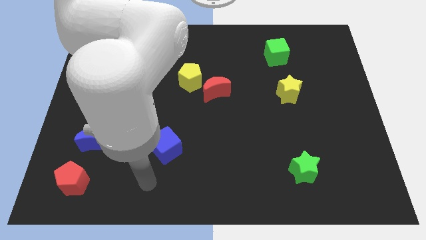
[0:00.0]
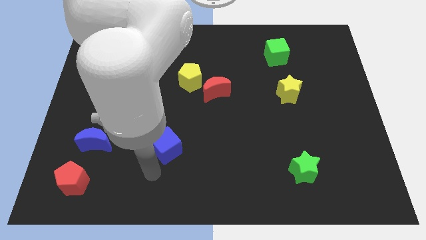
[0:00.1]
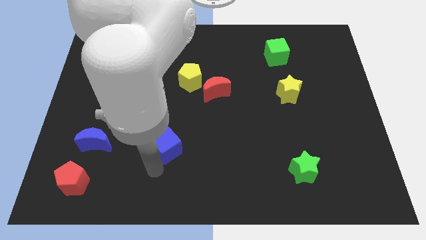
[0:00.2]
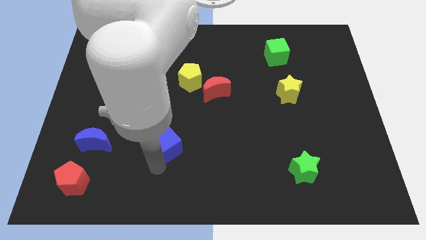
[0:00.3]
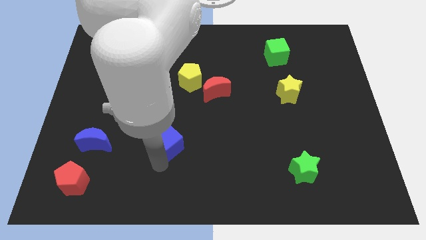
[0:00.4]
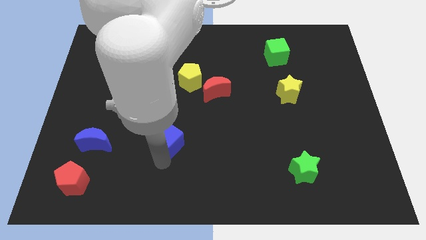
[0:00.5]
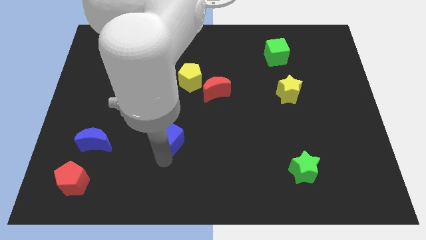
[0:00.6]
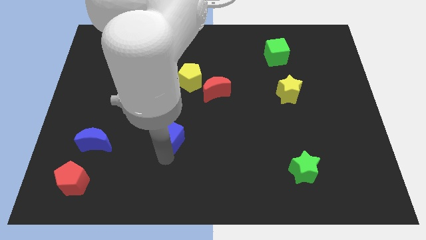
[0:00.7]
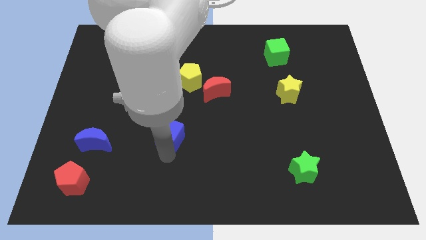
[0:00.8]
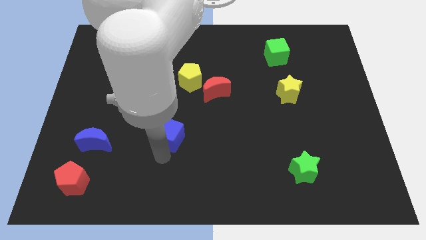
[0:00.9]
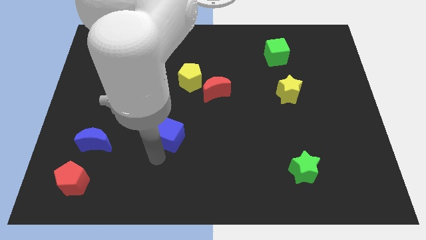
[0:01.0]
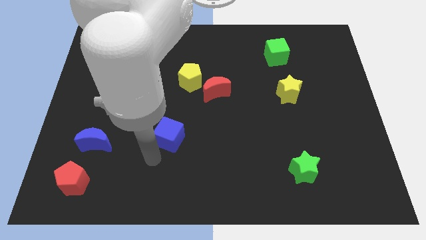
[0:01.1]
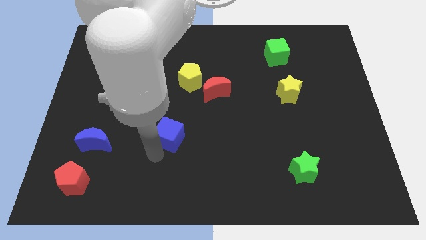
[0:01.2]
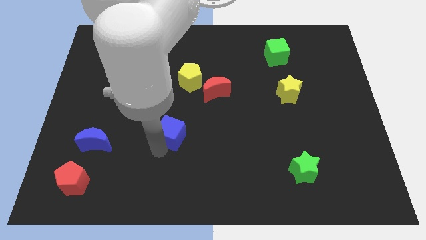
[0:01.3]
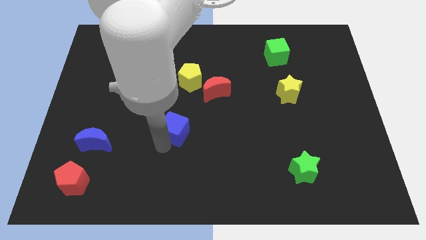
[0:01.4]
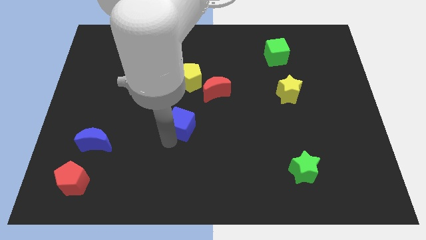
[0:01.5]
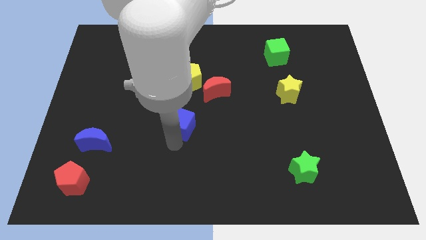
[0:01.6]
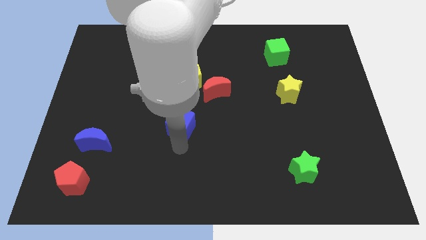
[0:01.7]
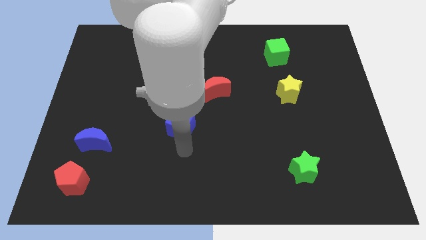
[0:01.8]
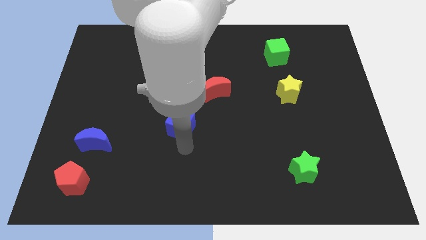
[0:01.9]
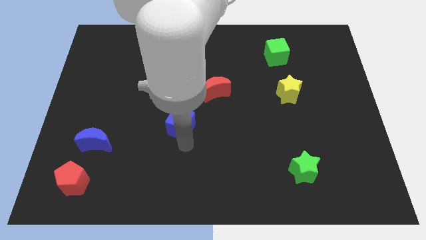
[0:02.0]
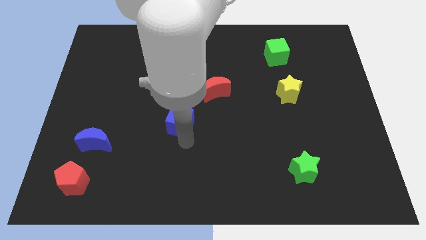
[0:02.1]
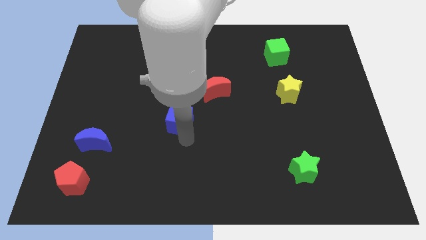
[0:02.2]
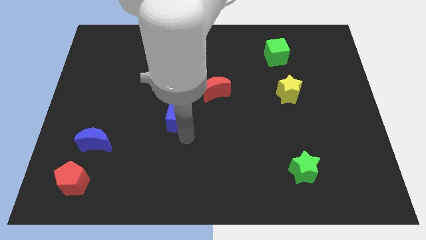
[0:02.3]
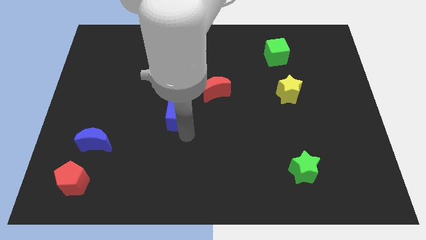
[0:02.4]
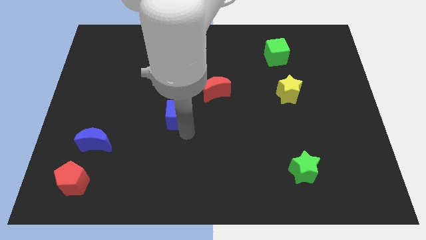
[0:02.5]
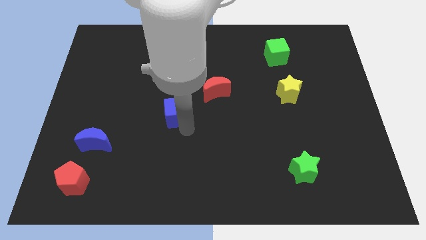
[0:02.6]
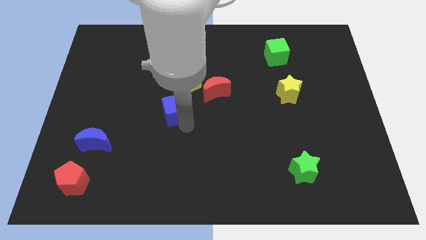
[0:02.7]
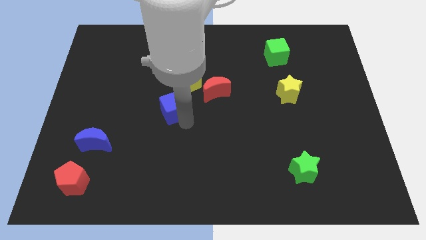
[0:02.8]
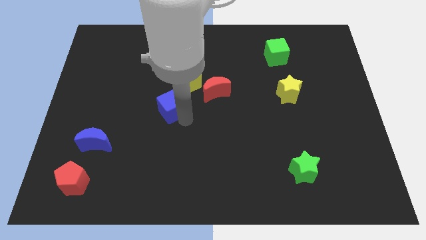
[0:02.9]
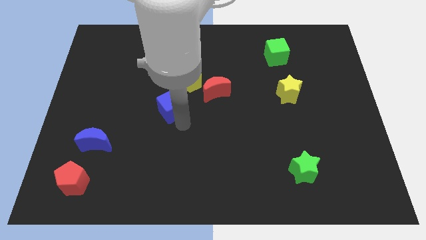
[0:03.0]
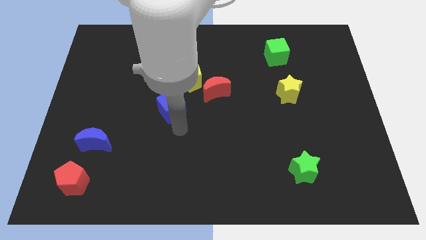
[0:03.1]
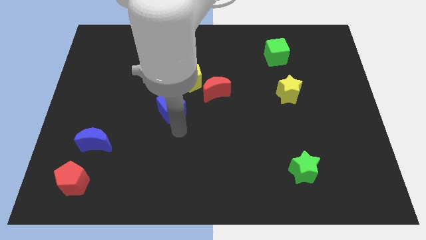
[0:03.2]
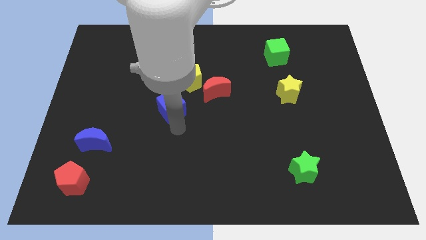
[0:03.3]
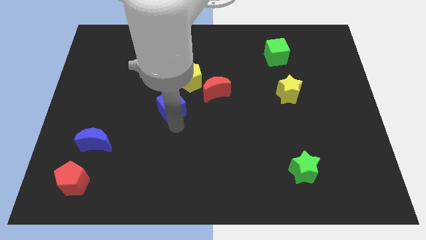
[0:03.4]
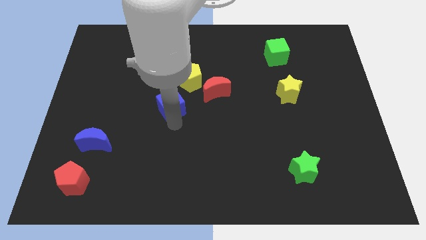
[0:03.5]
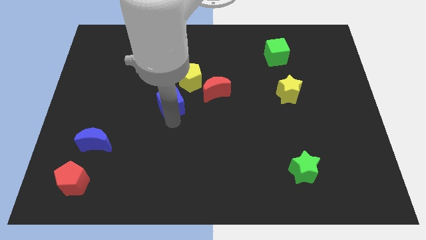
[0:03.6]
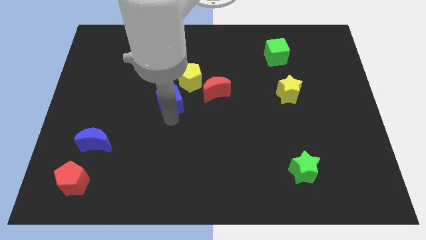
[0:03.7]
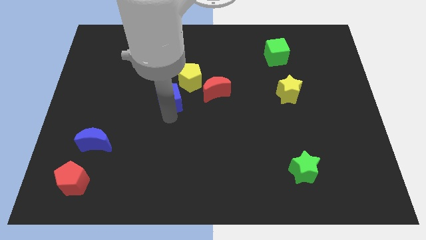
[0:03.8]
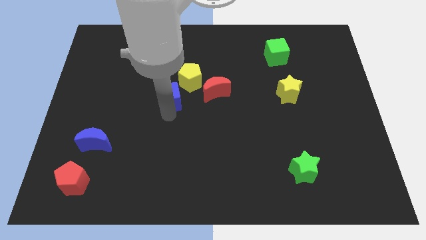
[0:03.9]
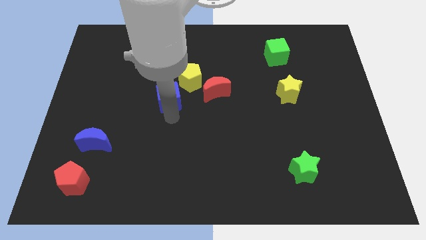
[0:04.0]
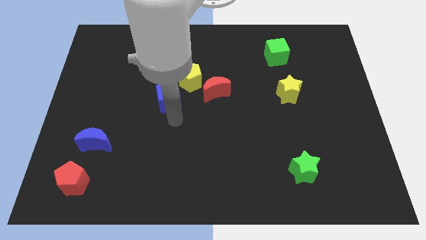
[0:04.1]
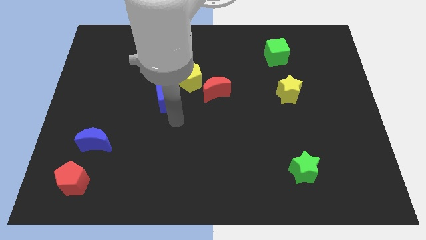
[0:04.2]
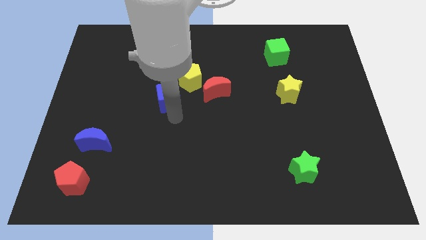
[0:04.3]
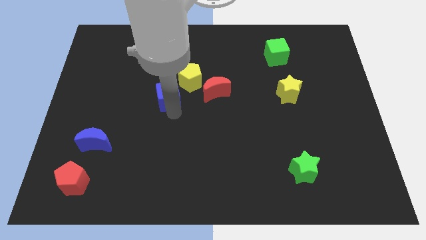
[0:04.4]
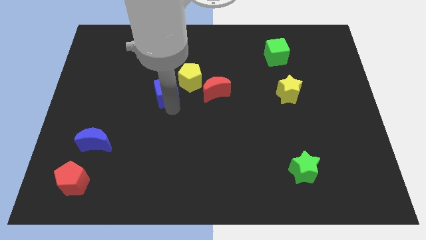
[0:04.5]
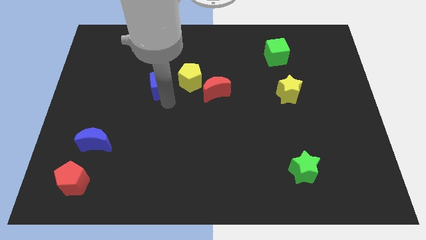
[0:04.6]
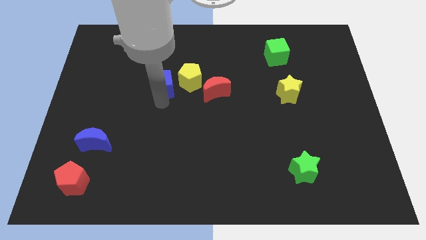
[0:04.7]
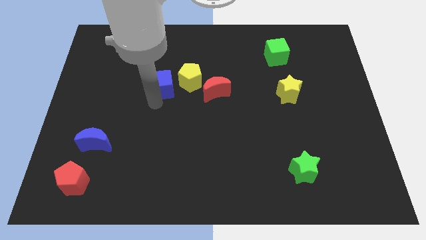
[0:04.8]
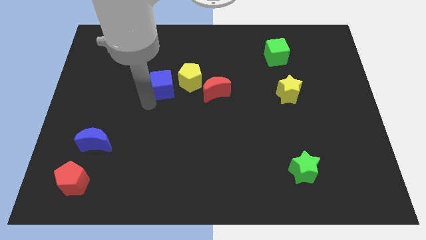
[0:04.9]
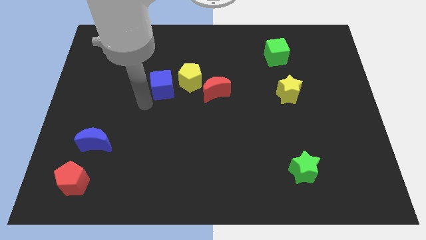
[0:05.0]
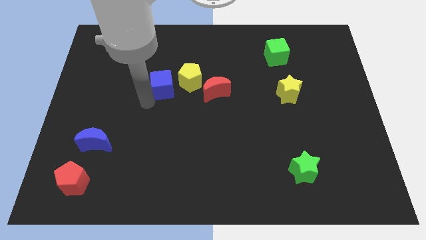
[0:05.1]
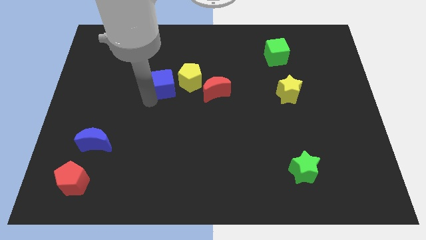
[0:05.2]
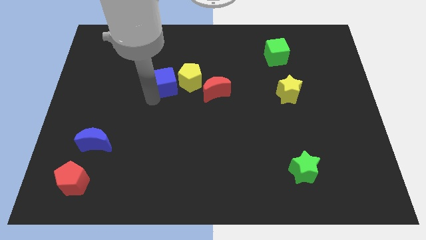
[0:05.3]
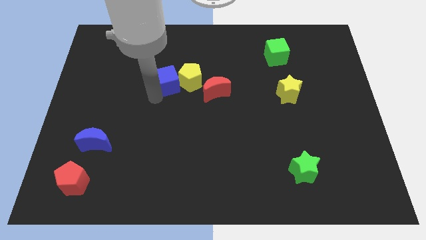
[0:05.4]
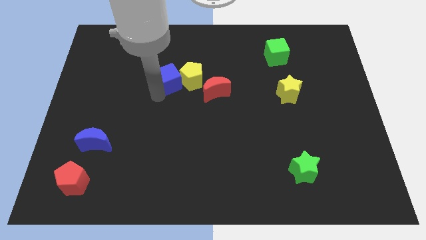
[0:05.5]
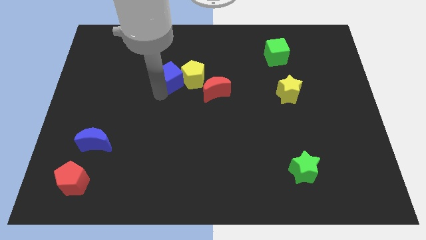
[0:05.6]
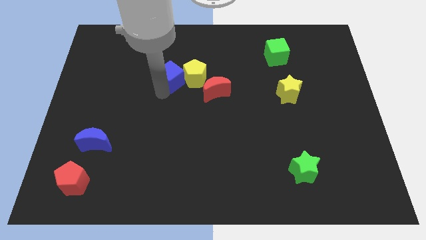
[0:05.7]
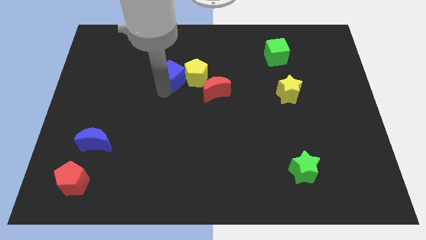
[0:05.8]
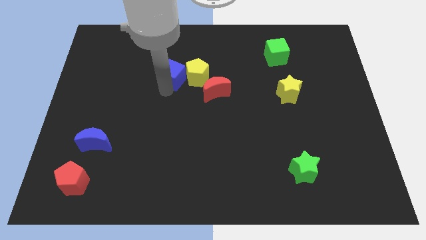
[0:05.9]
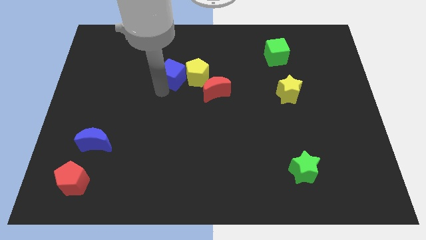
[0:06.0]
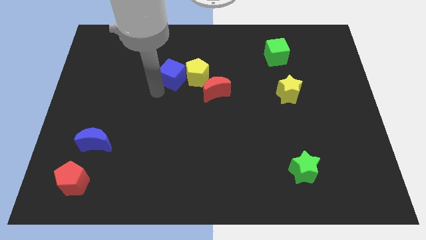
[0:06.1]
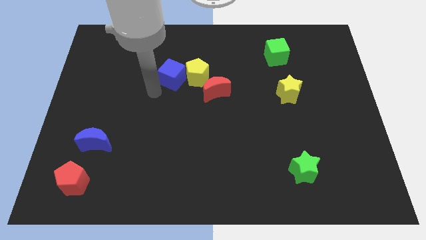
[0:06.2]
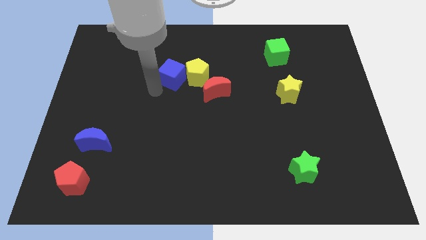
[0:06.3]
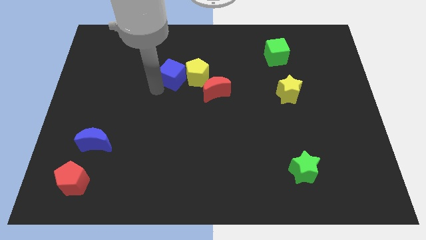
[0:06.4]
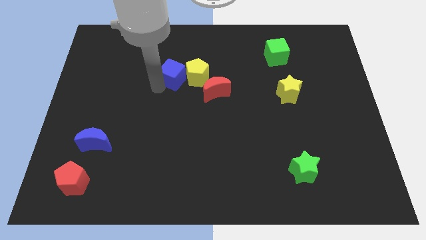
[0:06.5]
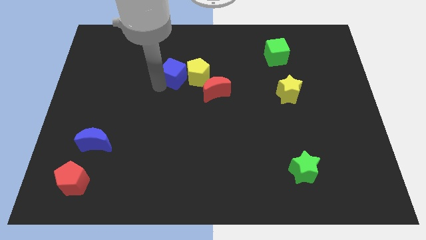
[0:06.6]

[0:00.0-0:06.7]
slide the blue cube diagonally up and to the left of the red moon
